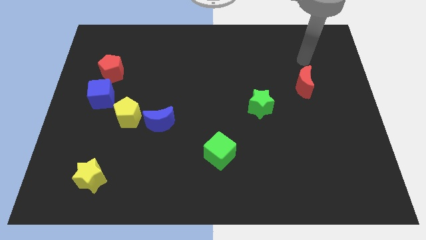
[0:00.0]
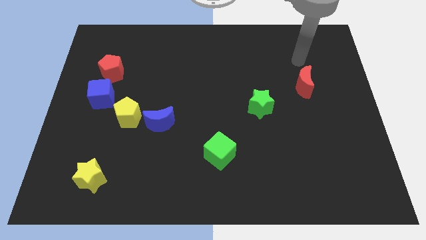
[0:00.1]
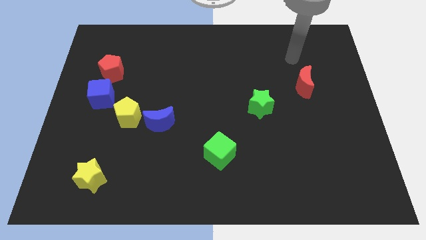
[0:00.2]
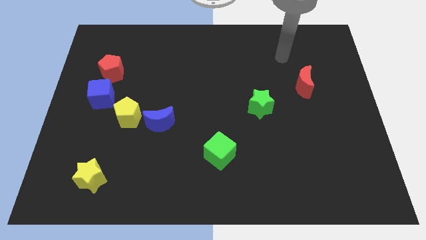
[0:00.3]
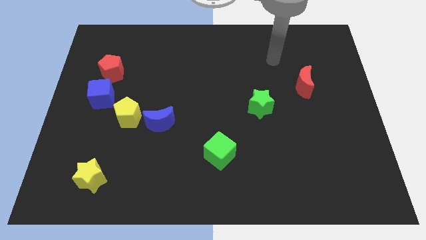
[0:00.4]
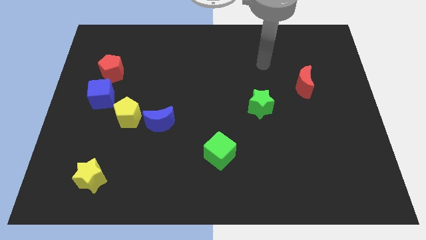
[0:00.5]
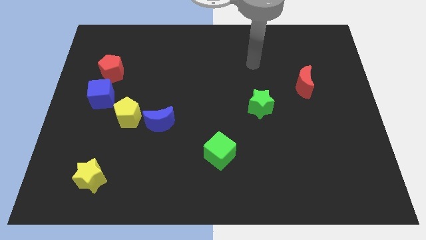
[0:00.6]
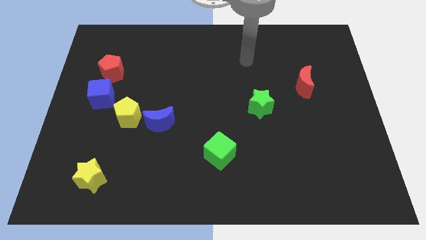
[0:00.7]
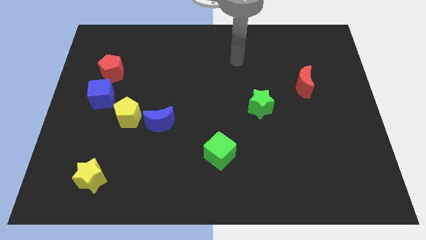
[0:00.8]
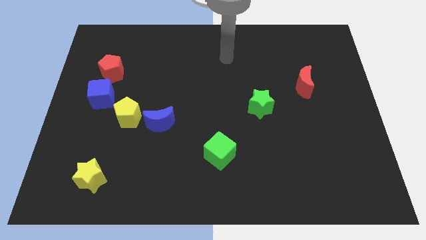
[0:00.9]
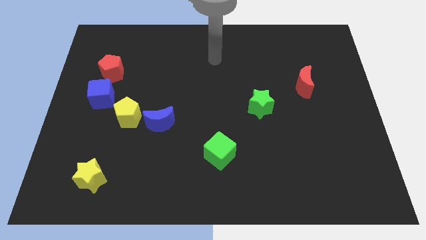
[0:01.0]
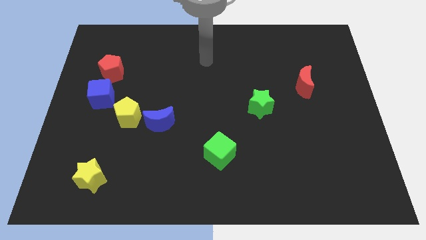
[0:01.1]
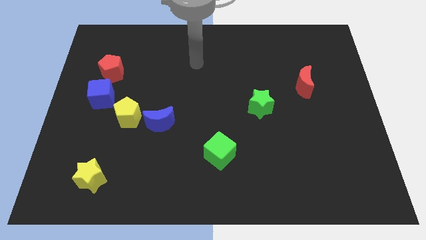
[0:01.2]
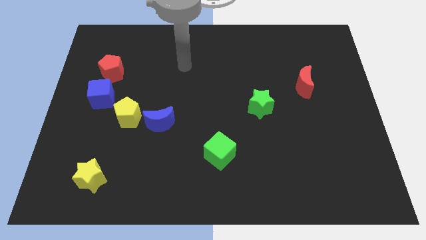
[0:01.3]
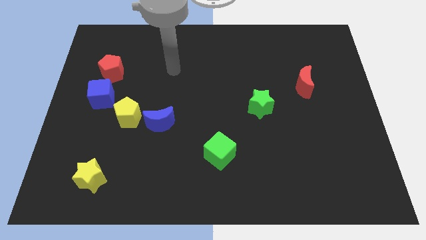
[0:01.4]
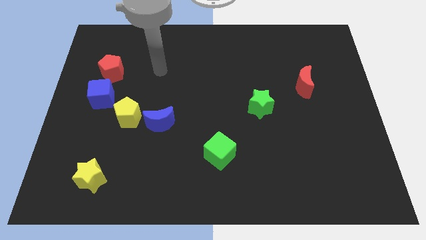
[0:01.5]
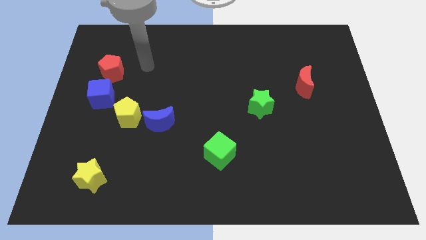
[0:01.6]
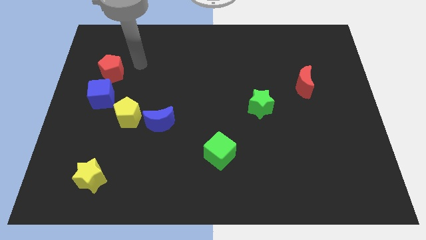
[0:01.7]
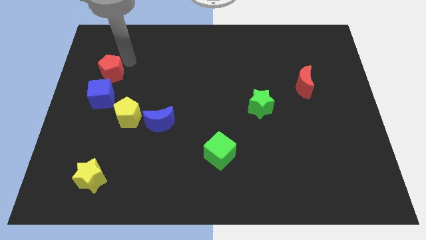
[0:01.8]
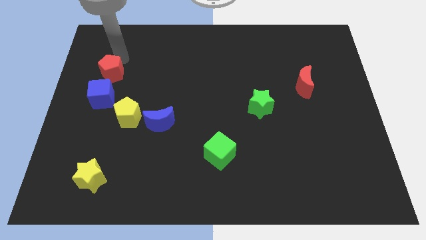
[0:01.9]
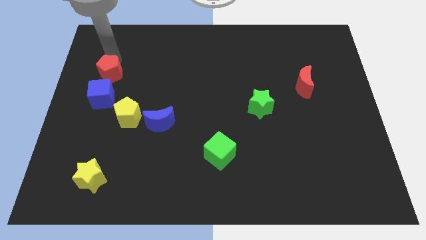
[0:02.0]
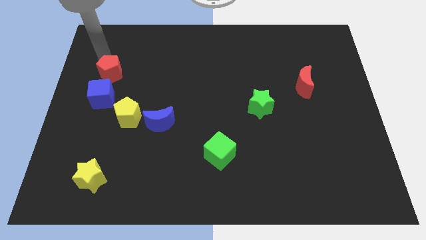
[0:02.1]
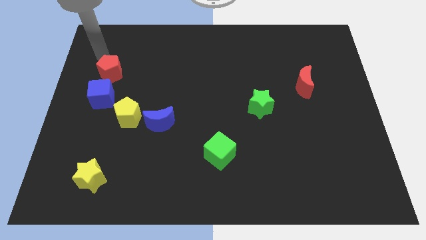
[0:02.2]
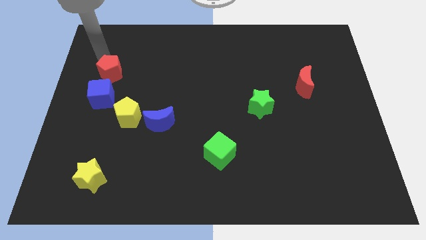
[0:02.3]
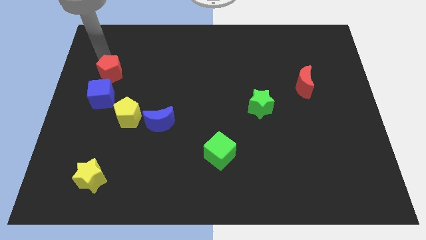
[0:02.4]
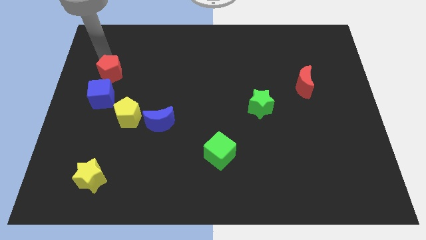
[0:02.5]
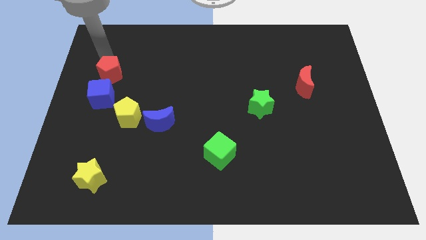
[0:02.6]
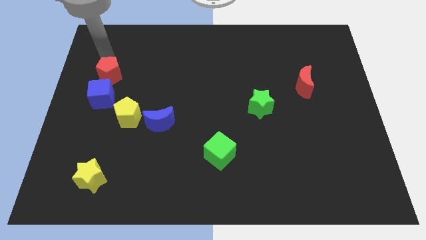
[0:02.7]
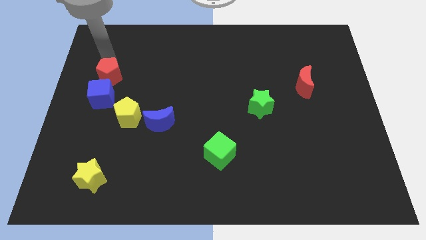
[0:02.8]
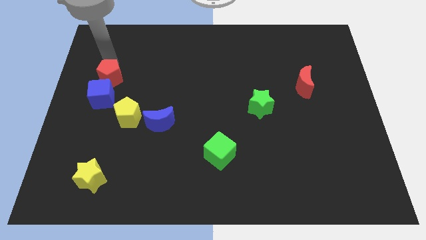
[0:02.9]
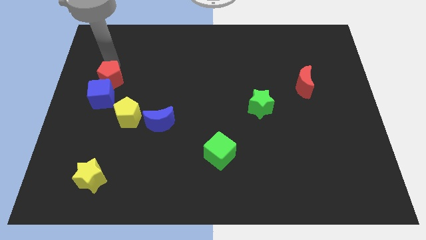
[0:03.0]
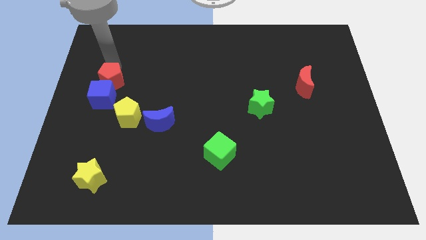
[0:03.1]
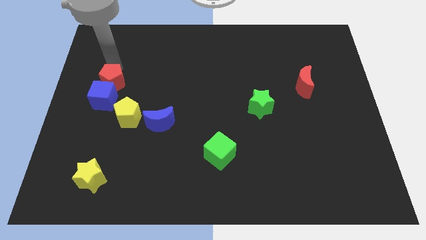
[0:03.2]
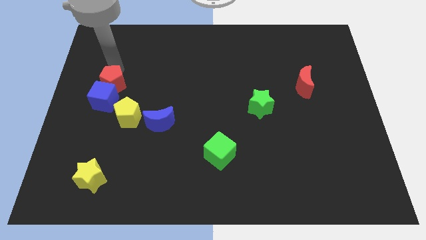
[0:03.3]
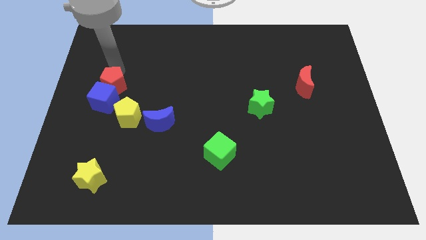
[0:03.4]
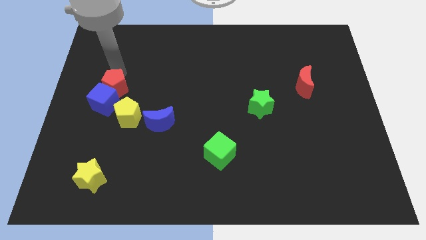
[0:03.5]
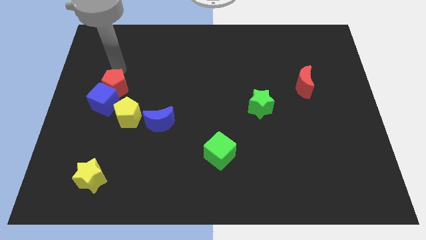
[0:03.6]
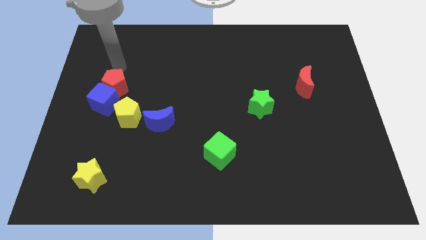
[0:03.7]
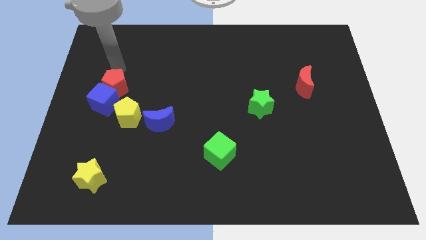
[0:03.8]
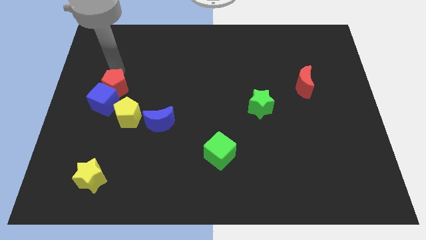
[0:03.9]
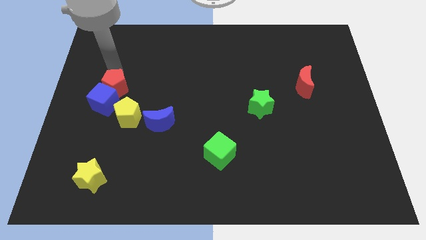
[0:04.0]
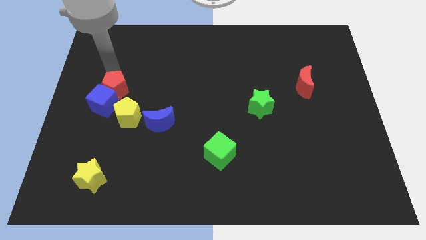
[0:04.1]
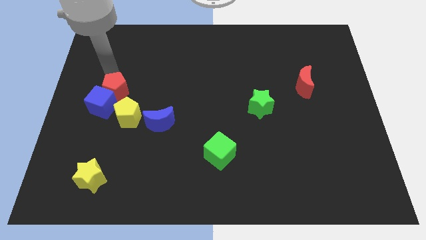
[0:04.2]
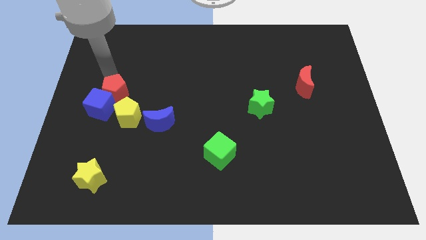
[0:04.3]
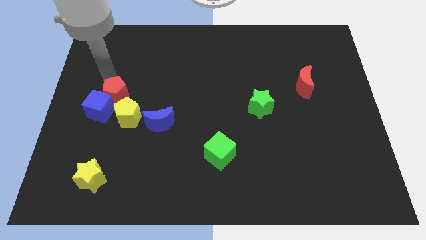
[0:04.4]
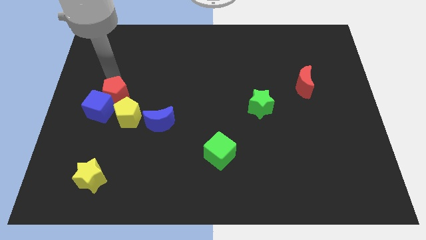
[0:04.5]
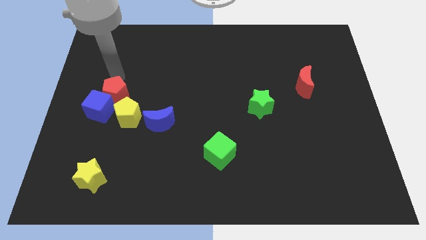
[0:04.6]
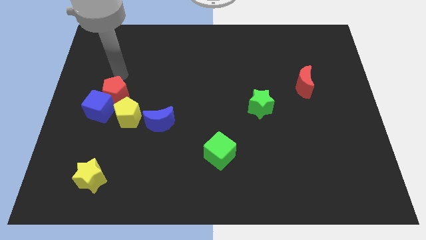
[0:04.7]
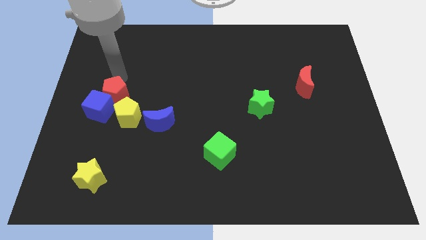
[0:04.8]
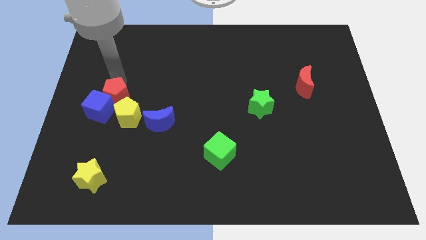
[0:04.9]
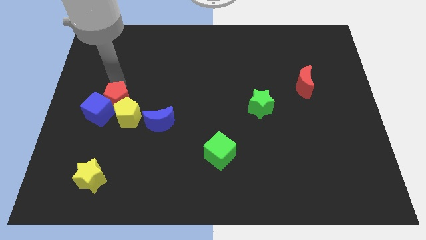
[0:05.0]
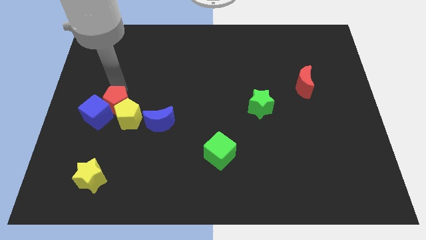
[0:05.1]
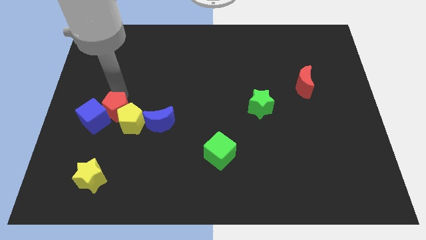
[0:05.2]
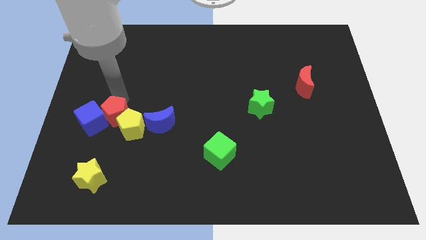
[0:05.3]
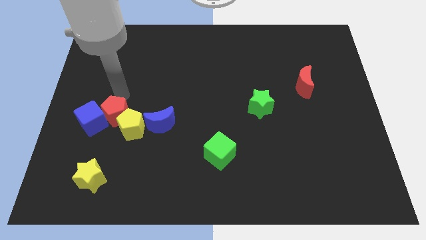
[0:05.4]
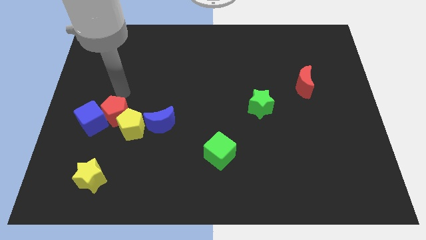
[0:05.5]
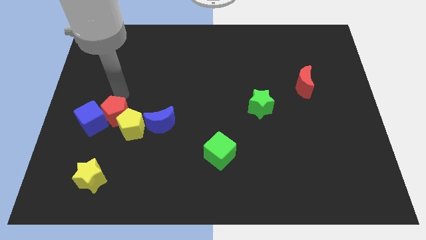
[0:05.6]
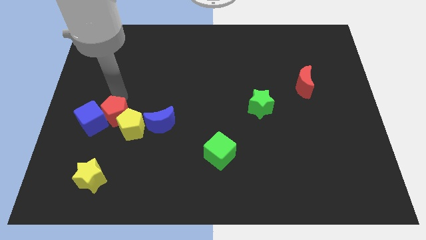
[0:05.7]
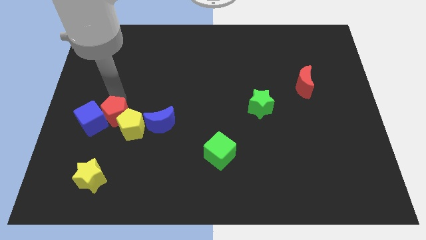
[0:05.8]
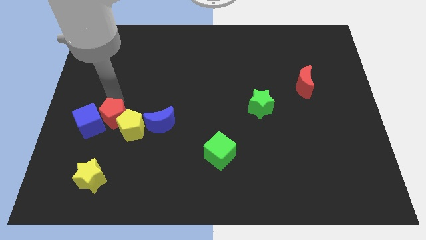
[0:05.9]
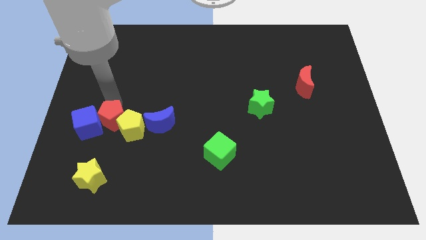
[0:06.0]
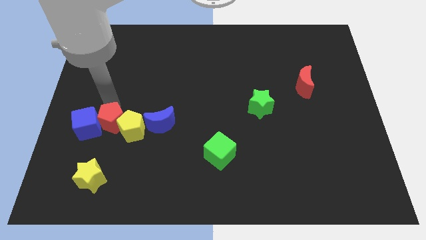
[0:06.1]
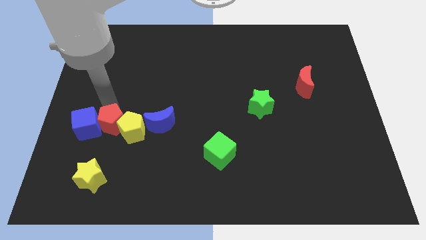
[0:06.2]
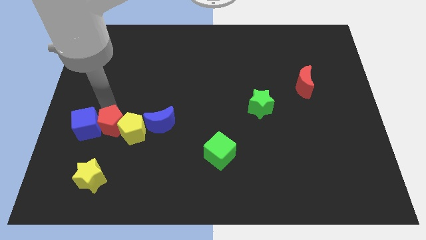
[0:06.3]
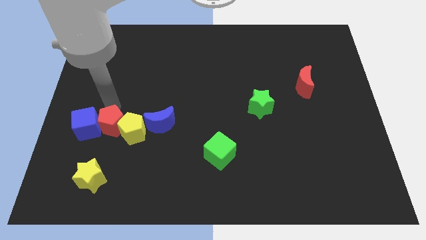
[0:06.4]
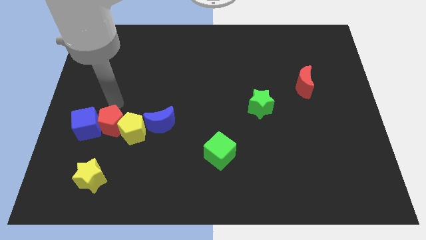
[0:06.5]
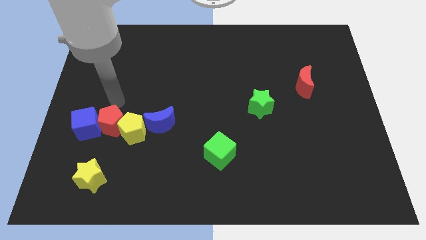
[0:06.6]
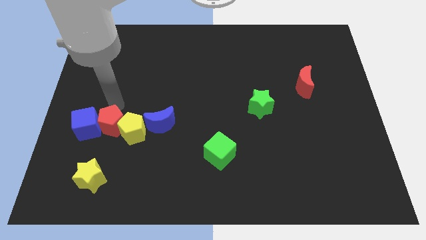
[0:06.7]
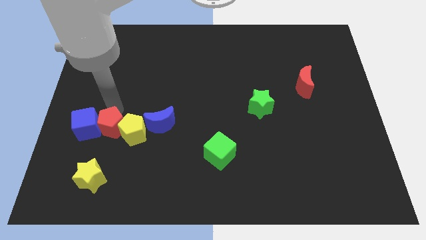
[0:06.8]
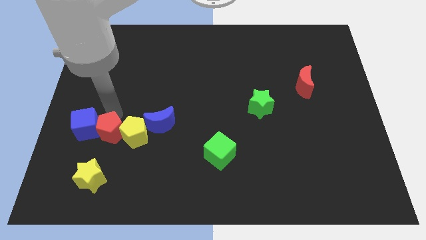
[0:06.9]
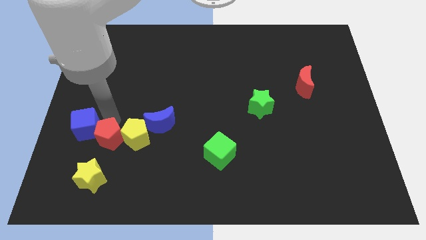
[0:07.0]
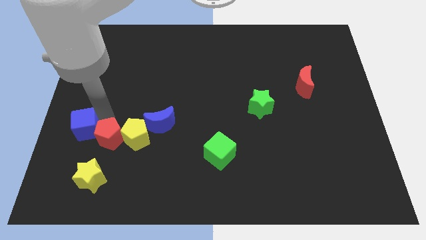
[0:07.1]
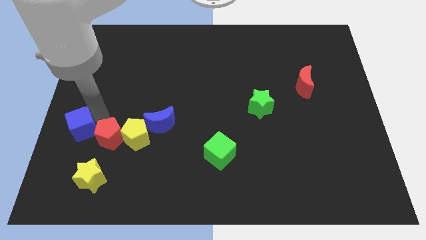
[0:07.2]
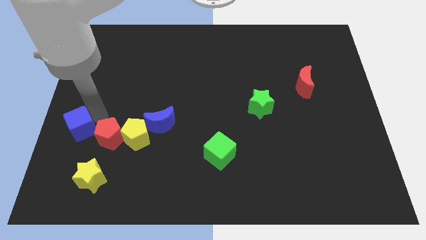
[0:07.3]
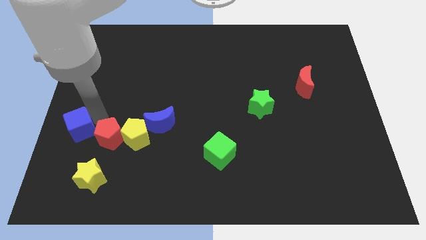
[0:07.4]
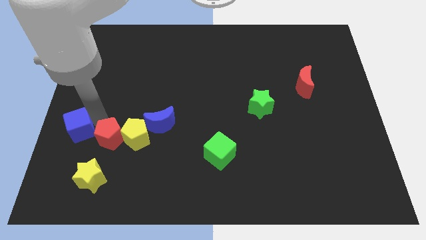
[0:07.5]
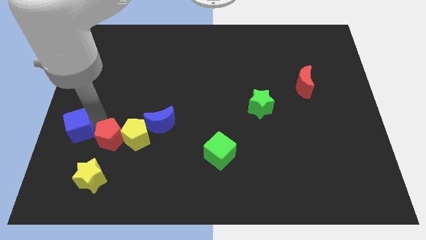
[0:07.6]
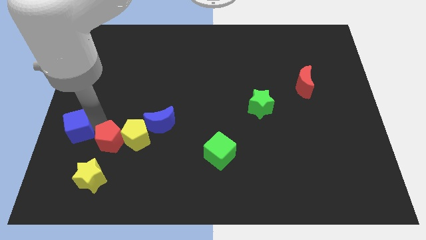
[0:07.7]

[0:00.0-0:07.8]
put the red pentagon to the top right side of the yellow star
